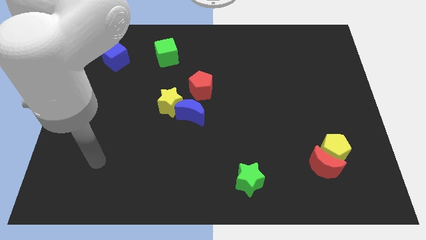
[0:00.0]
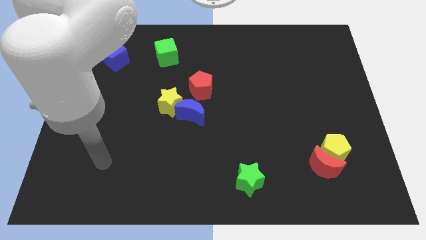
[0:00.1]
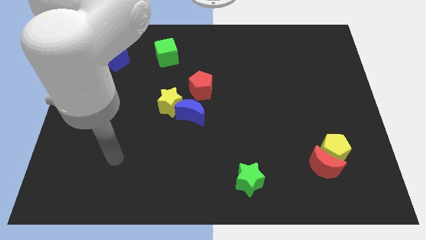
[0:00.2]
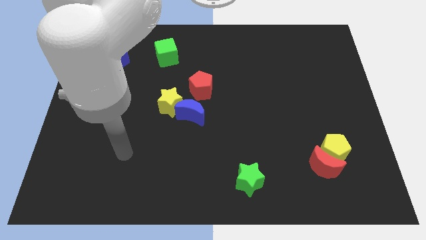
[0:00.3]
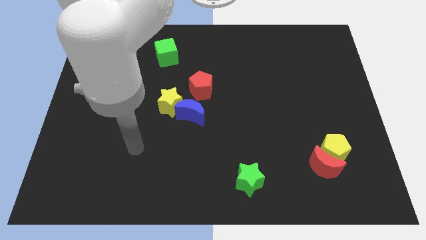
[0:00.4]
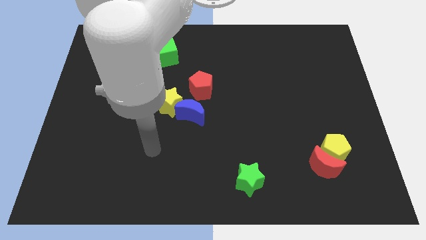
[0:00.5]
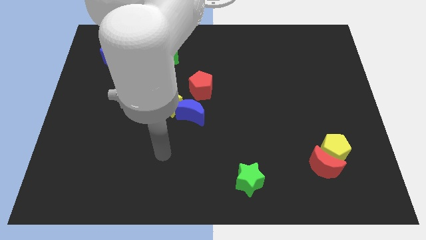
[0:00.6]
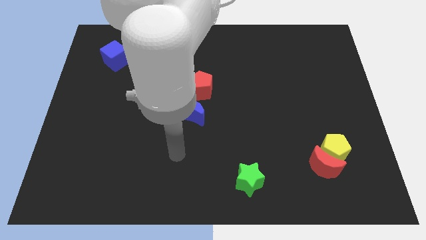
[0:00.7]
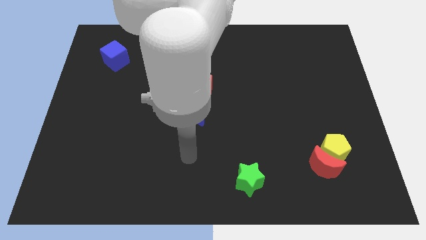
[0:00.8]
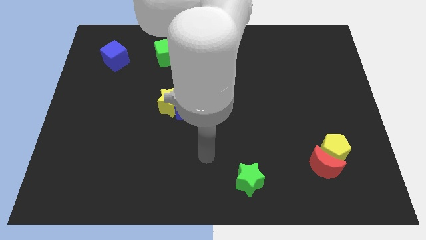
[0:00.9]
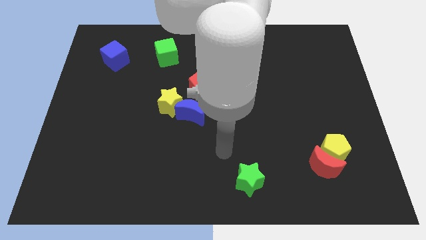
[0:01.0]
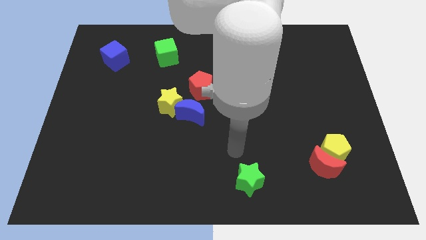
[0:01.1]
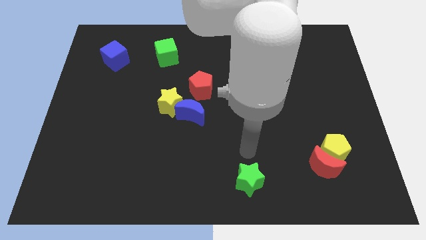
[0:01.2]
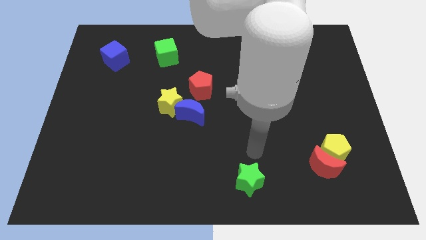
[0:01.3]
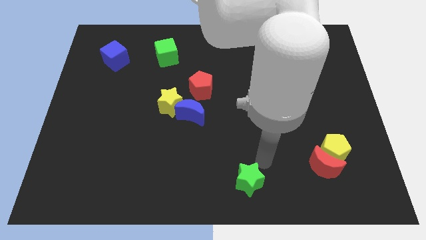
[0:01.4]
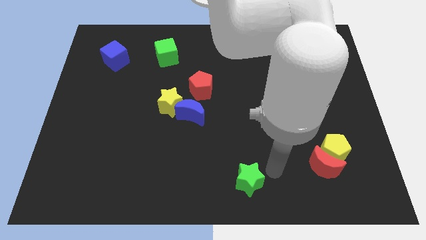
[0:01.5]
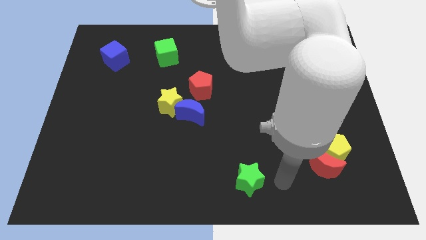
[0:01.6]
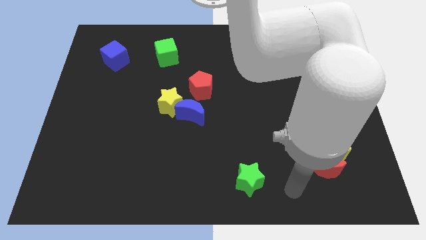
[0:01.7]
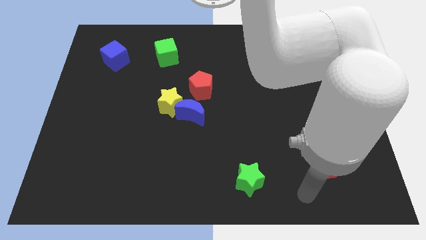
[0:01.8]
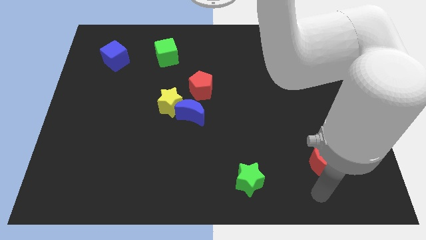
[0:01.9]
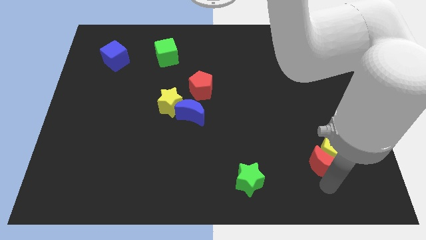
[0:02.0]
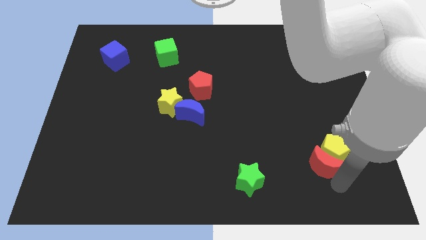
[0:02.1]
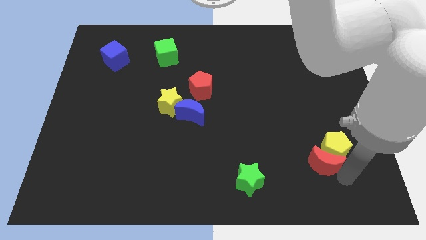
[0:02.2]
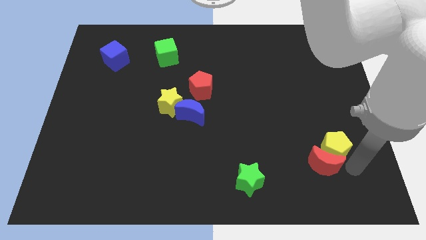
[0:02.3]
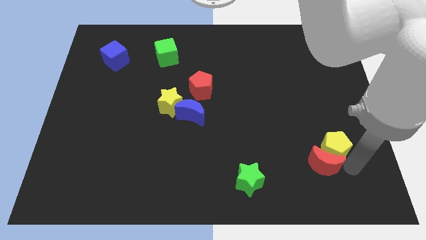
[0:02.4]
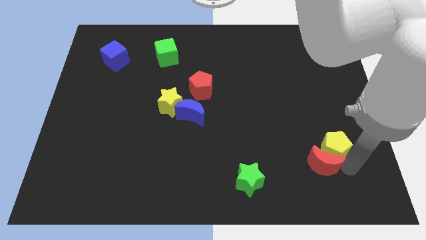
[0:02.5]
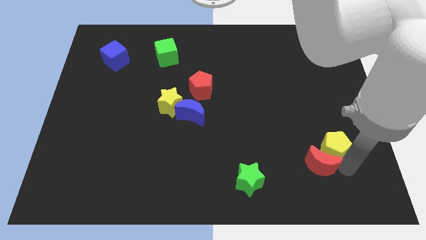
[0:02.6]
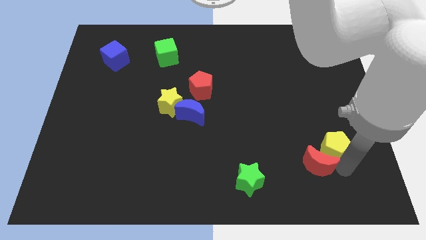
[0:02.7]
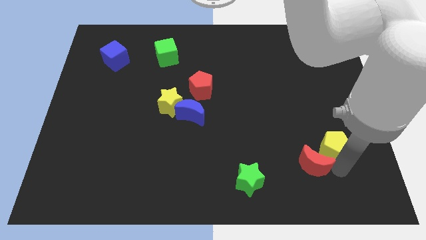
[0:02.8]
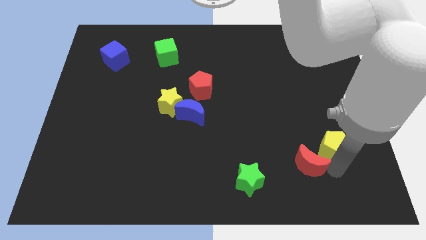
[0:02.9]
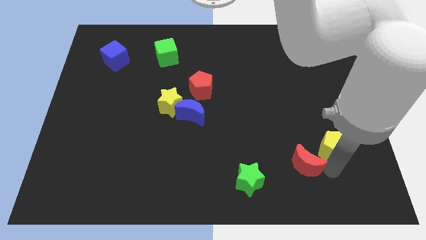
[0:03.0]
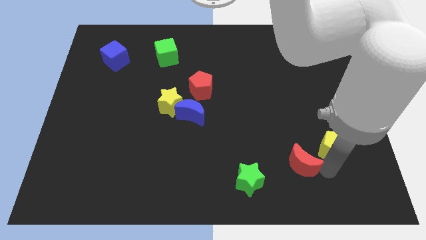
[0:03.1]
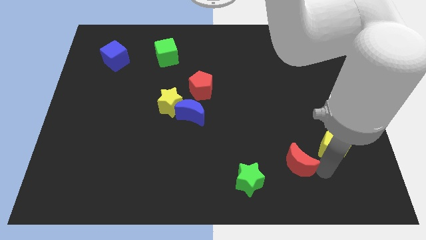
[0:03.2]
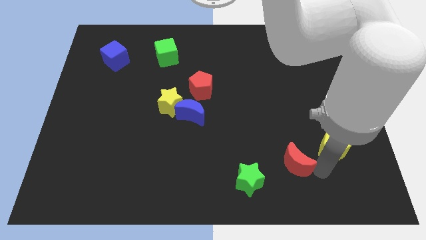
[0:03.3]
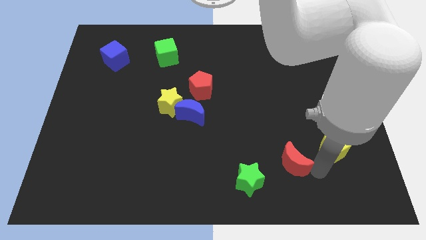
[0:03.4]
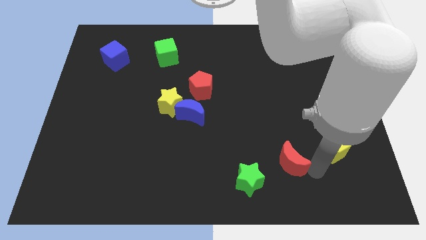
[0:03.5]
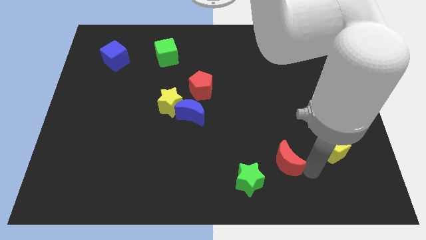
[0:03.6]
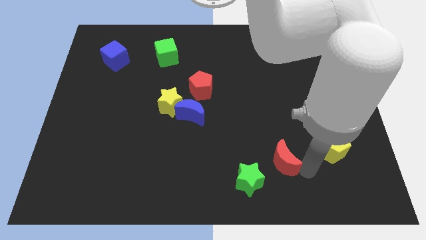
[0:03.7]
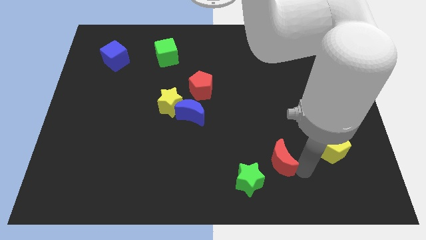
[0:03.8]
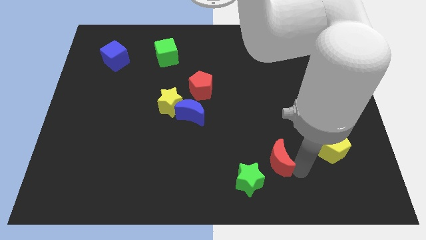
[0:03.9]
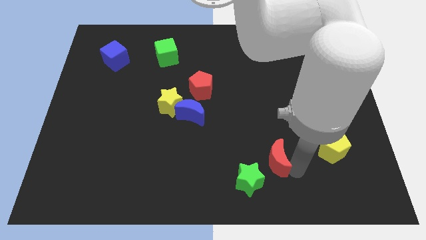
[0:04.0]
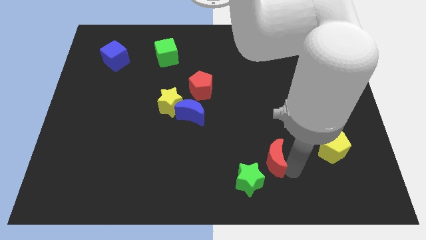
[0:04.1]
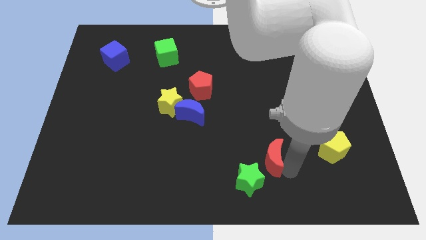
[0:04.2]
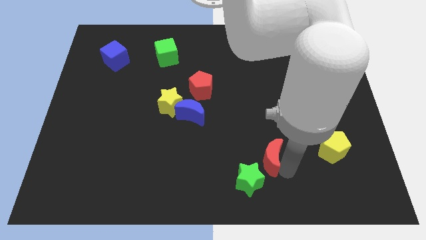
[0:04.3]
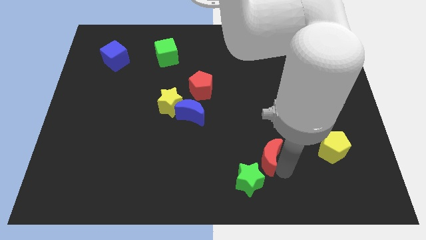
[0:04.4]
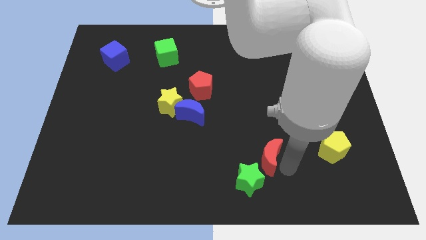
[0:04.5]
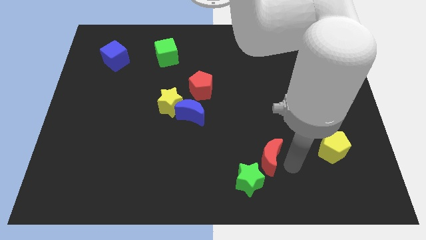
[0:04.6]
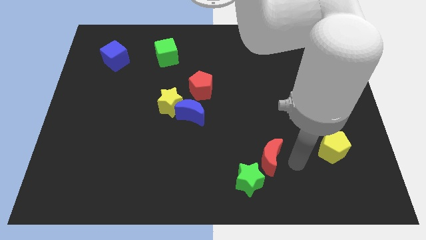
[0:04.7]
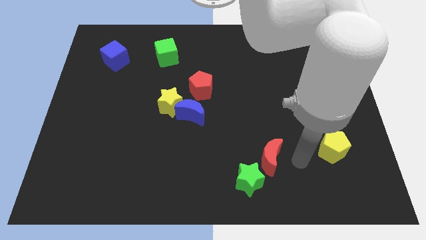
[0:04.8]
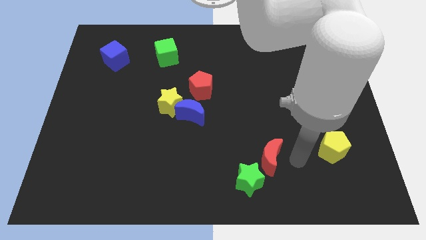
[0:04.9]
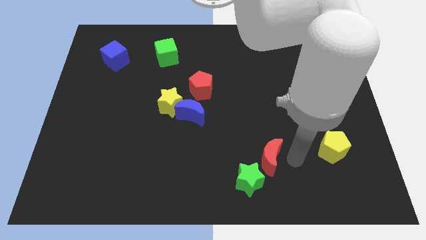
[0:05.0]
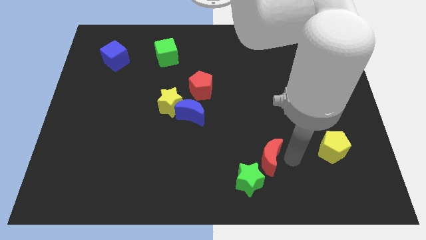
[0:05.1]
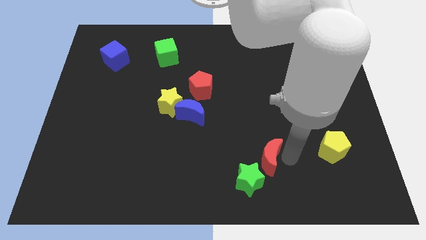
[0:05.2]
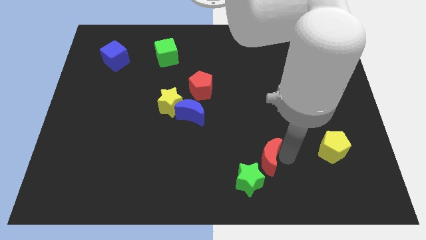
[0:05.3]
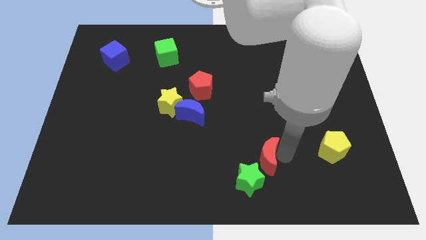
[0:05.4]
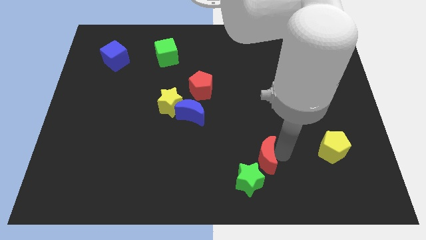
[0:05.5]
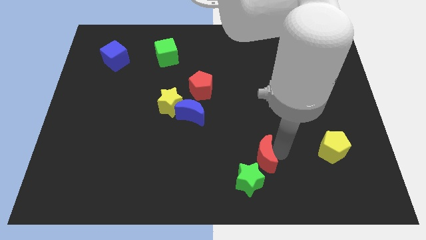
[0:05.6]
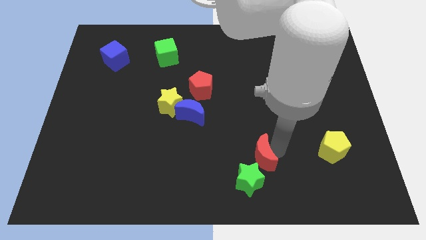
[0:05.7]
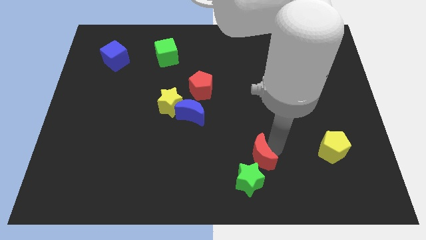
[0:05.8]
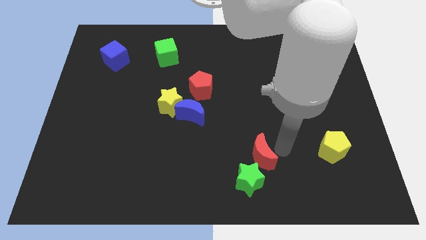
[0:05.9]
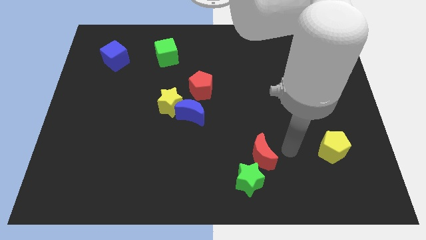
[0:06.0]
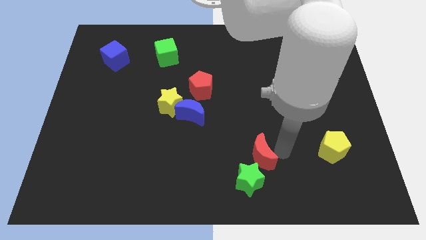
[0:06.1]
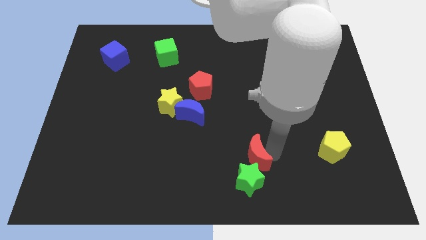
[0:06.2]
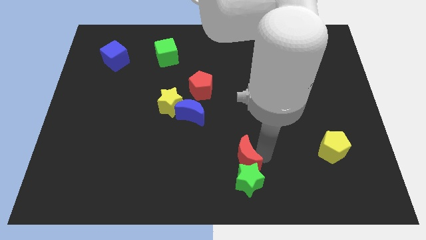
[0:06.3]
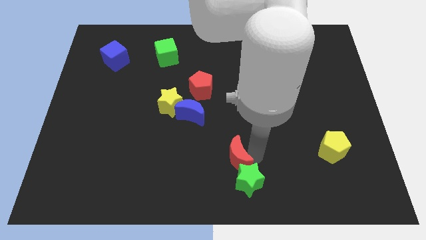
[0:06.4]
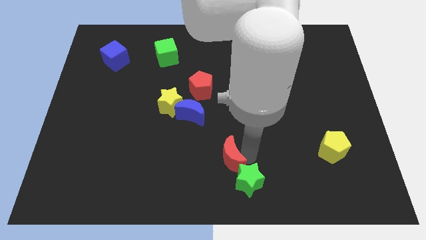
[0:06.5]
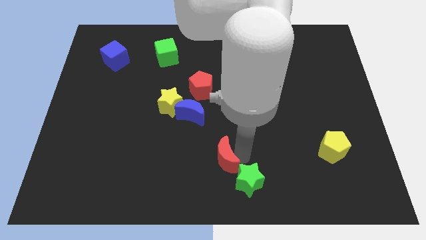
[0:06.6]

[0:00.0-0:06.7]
move the red moon left

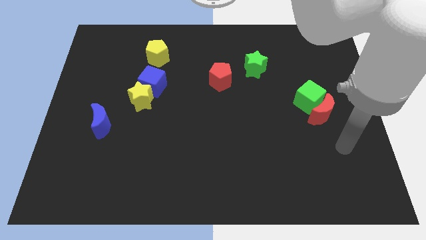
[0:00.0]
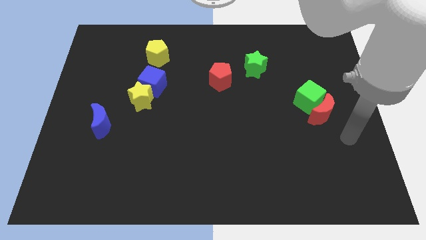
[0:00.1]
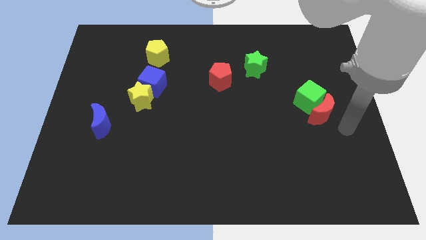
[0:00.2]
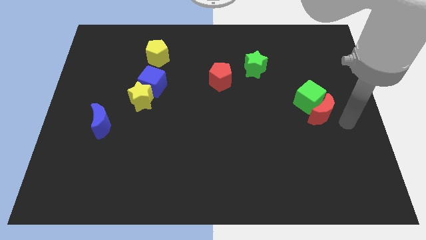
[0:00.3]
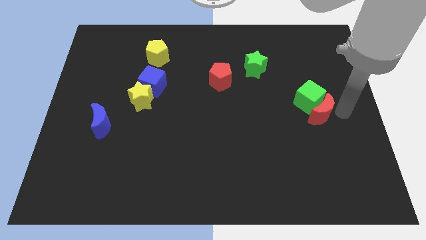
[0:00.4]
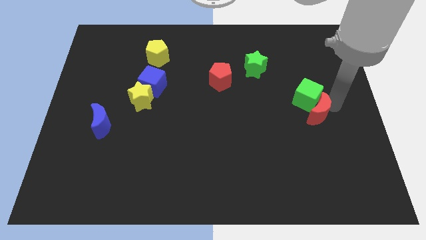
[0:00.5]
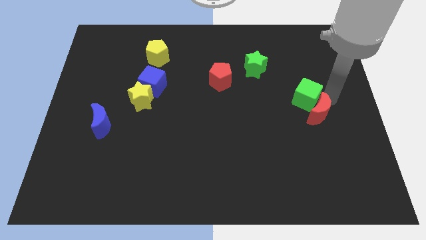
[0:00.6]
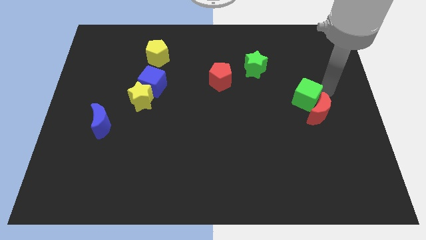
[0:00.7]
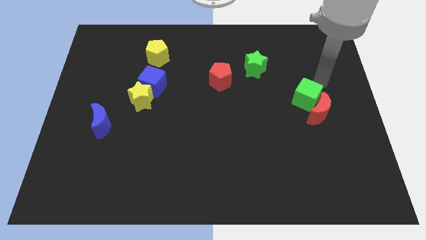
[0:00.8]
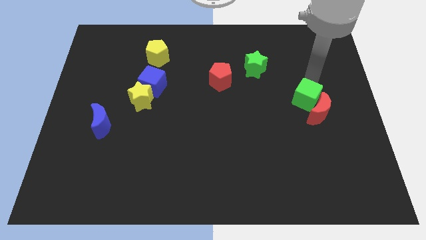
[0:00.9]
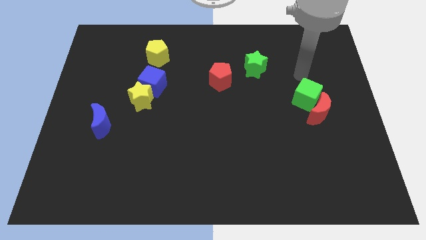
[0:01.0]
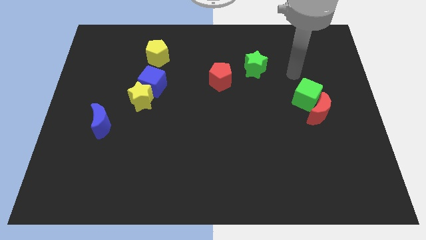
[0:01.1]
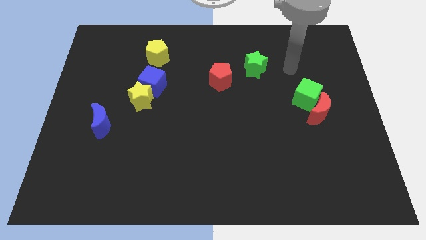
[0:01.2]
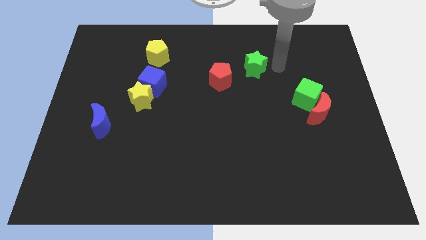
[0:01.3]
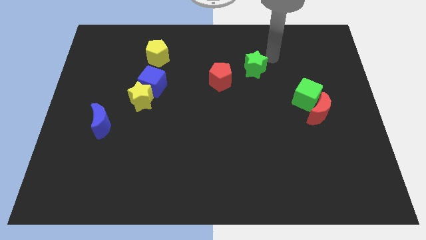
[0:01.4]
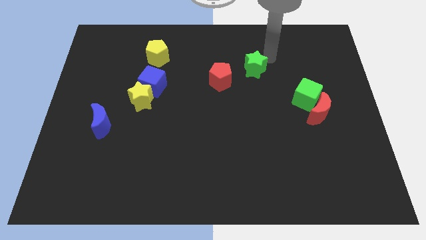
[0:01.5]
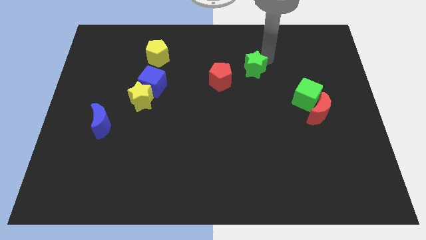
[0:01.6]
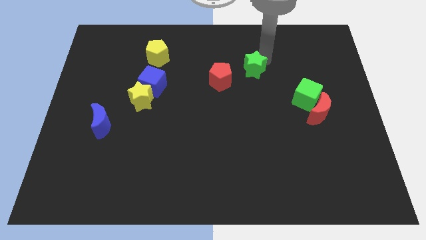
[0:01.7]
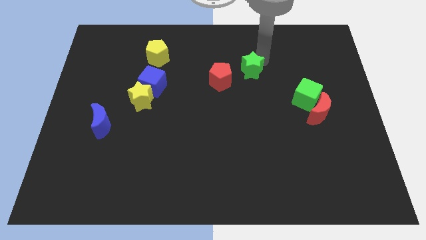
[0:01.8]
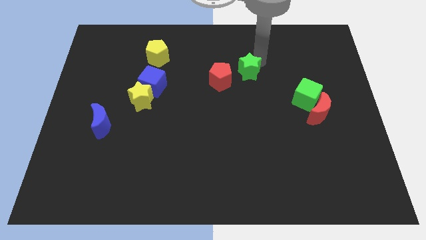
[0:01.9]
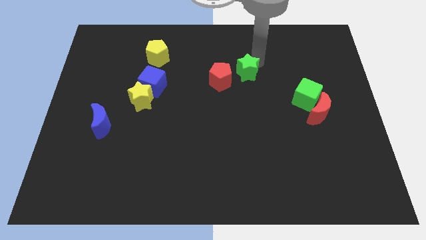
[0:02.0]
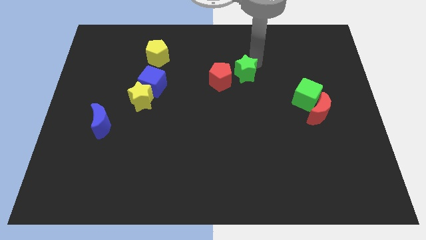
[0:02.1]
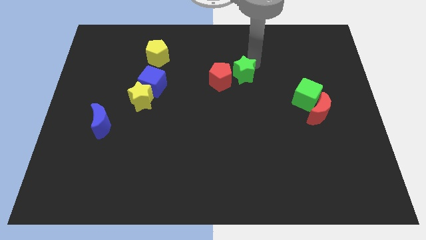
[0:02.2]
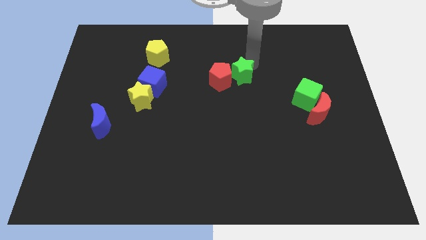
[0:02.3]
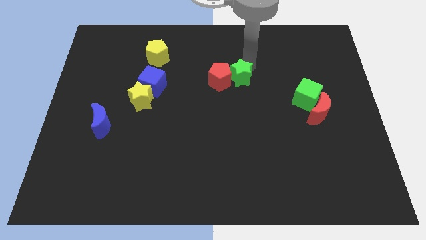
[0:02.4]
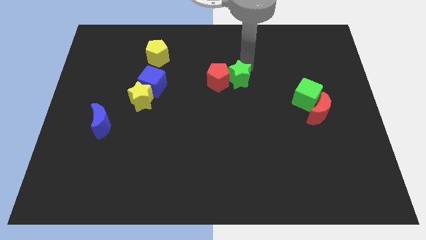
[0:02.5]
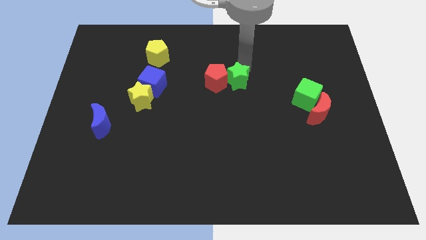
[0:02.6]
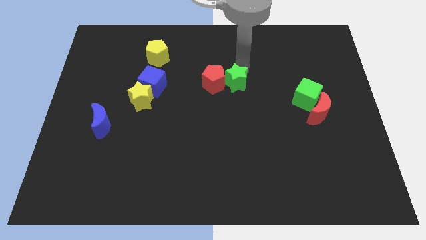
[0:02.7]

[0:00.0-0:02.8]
move the green star diagonally downwards and to the left a bit
